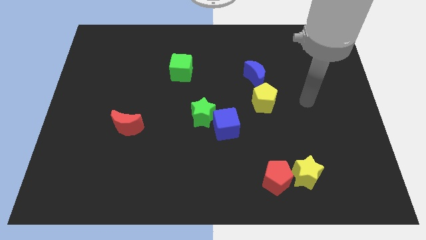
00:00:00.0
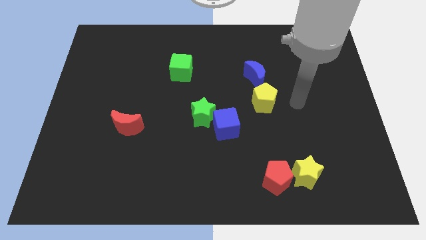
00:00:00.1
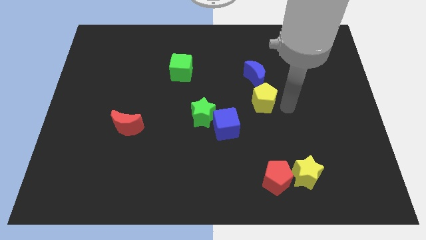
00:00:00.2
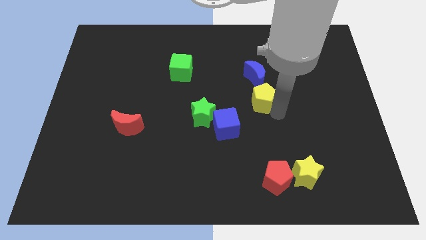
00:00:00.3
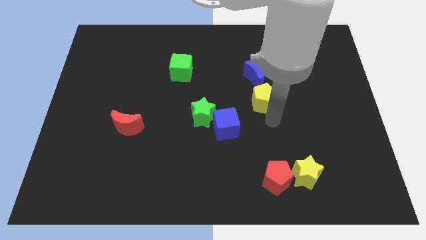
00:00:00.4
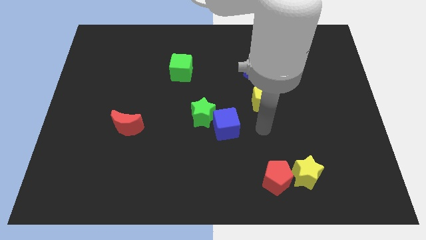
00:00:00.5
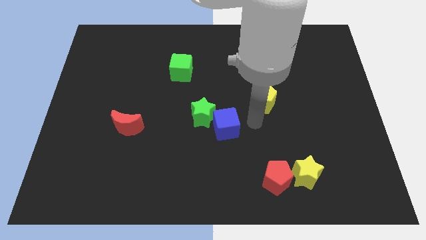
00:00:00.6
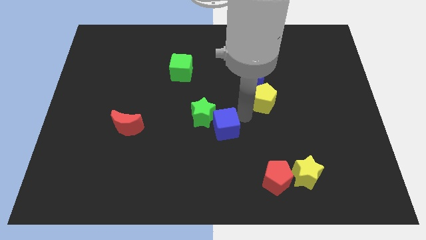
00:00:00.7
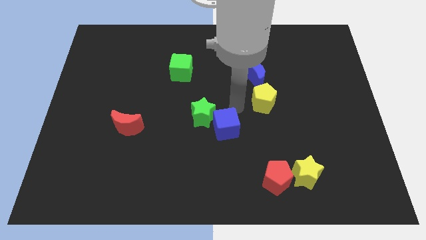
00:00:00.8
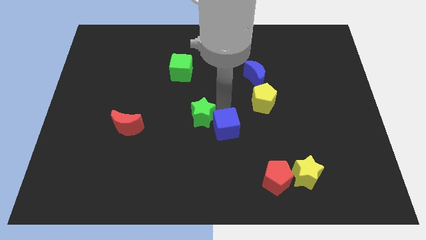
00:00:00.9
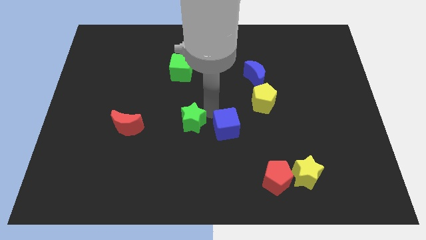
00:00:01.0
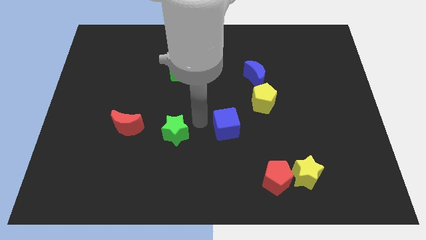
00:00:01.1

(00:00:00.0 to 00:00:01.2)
separate the blue cube from the green star

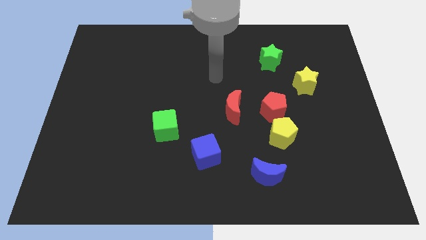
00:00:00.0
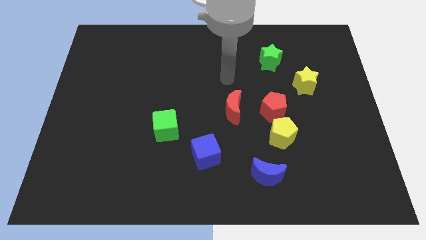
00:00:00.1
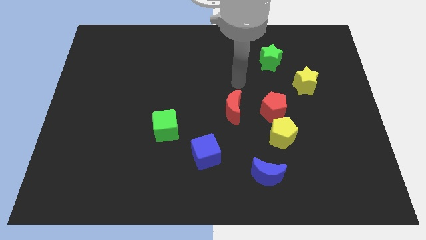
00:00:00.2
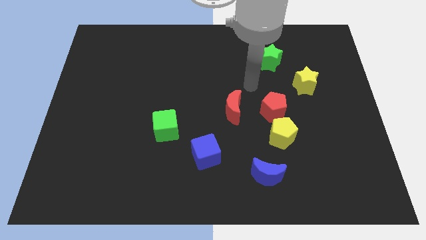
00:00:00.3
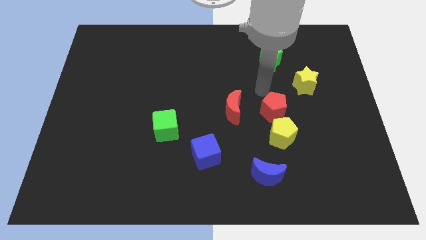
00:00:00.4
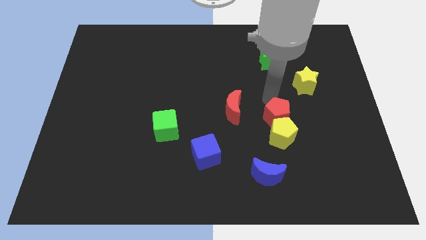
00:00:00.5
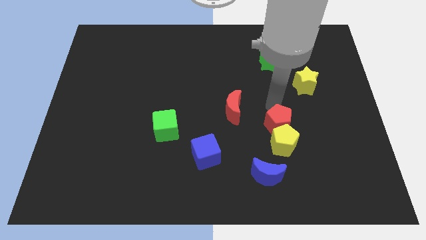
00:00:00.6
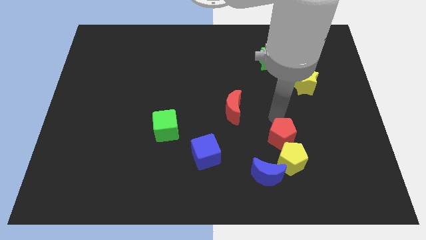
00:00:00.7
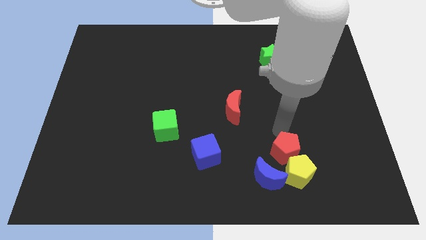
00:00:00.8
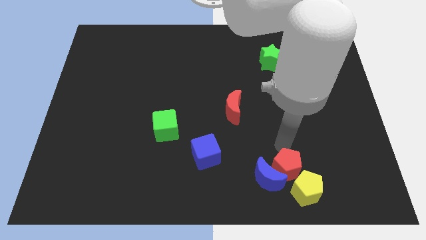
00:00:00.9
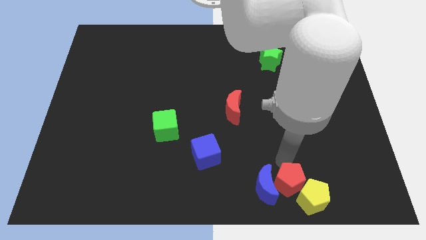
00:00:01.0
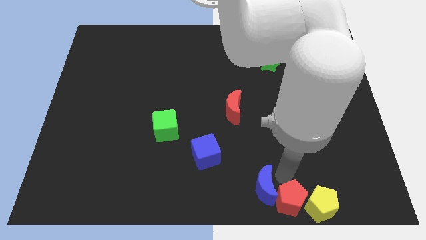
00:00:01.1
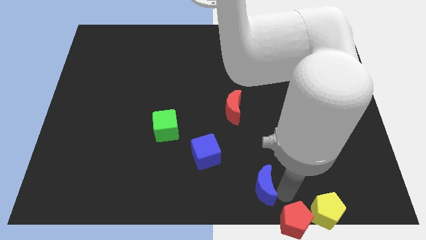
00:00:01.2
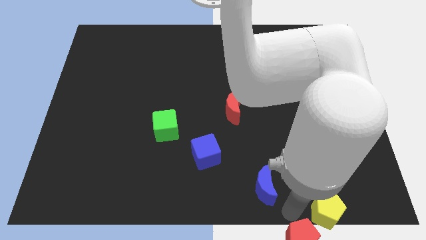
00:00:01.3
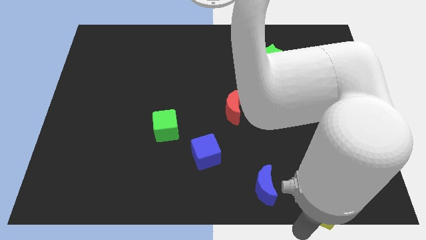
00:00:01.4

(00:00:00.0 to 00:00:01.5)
pull the yellow pentagon apart from the red pentagon

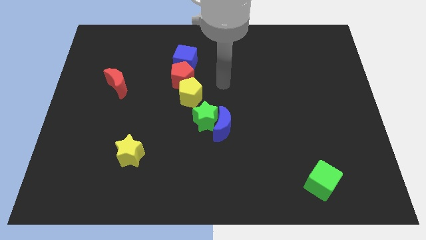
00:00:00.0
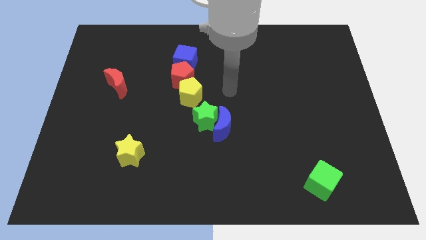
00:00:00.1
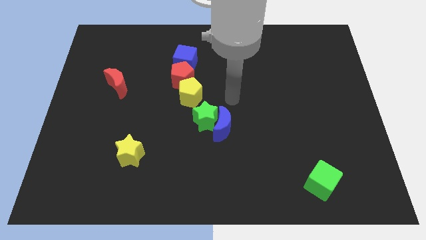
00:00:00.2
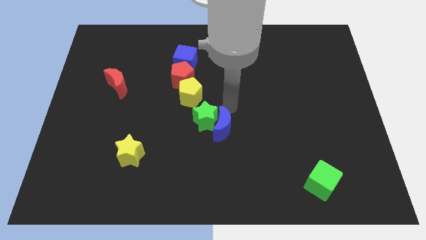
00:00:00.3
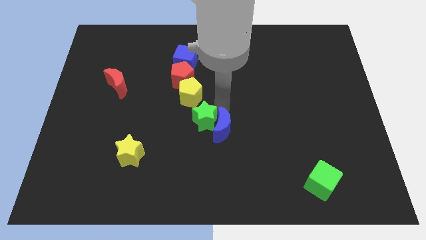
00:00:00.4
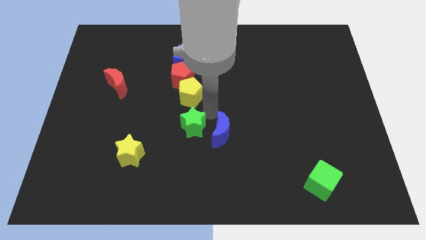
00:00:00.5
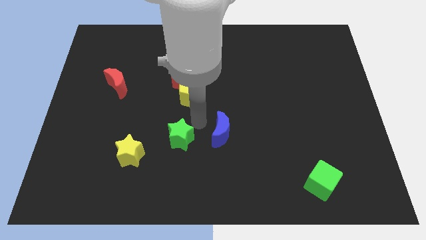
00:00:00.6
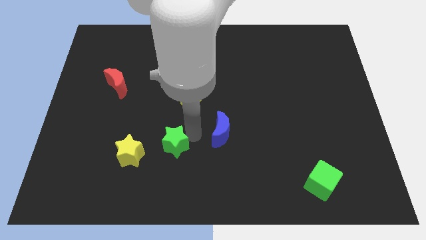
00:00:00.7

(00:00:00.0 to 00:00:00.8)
move the blue moon away from the green star

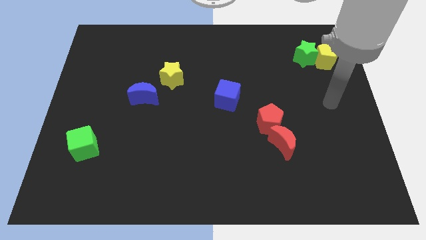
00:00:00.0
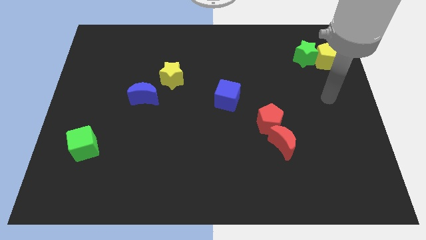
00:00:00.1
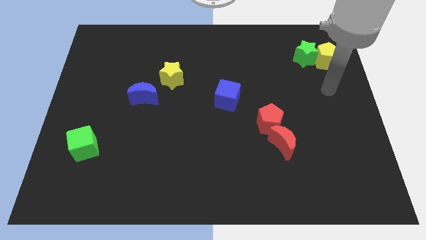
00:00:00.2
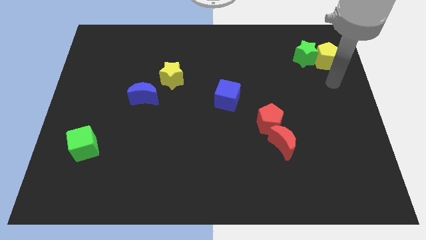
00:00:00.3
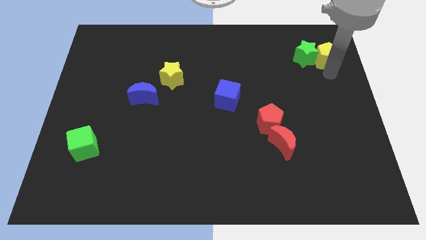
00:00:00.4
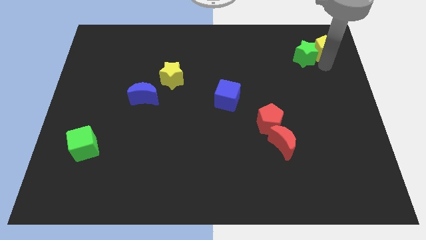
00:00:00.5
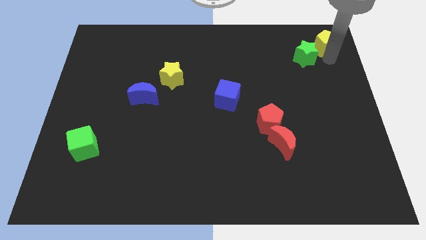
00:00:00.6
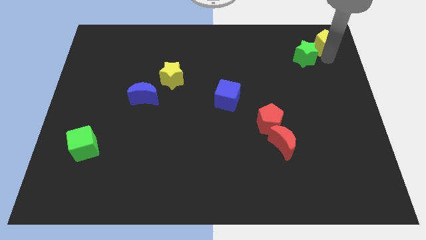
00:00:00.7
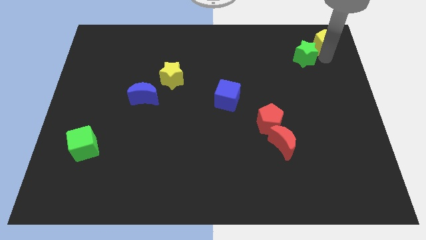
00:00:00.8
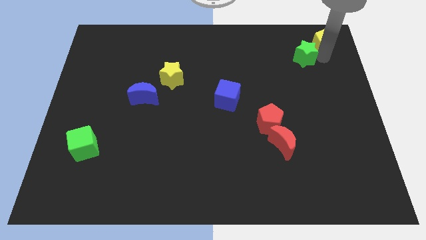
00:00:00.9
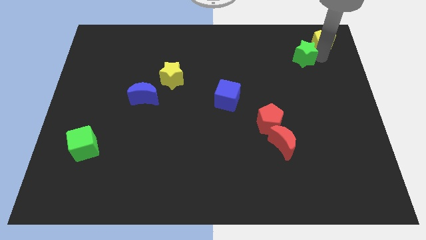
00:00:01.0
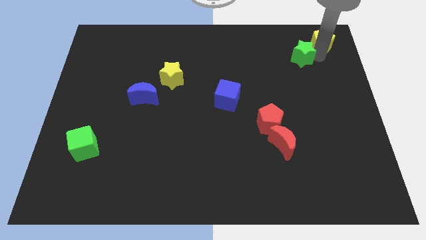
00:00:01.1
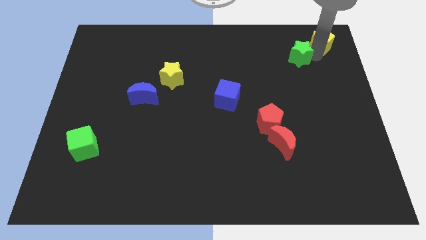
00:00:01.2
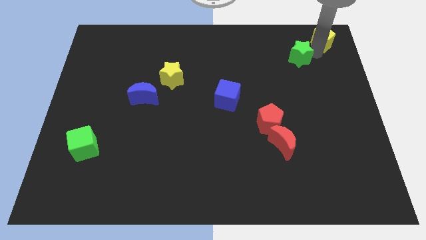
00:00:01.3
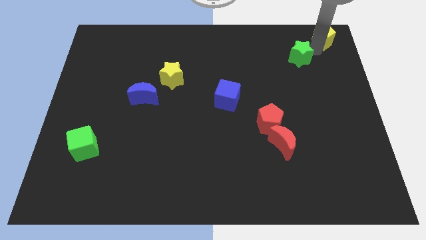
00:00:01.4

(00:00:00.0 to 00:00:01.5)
move the green star away from the yellow pentagon

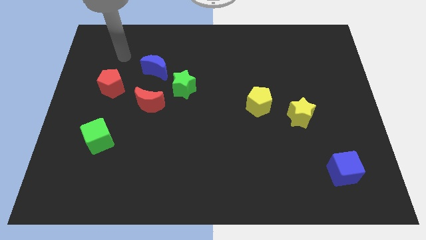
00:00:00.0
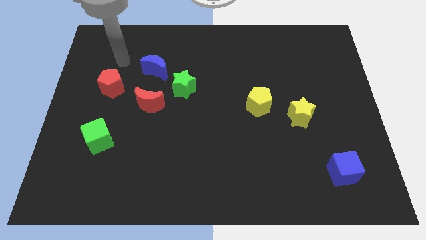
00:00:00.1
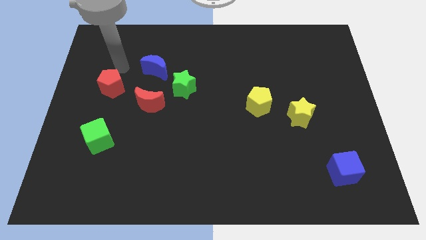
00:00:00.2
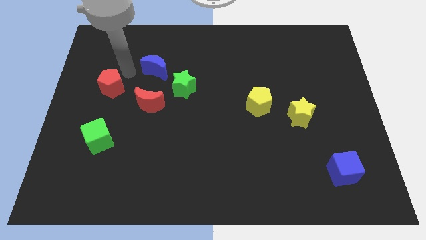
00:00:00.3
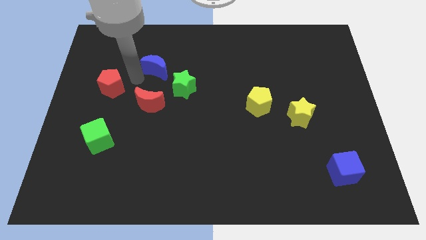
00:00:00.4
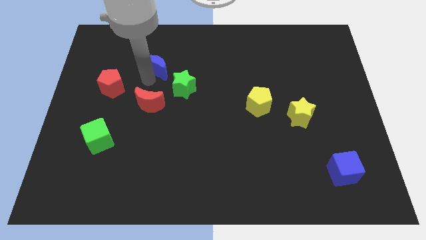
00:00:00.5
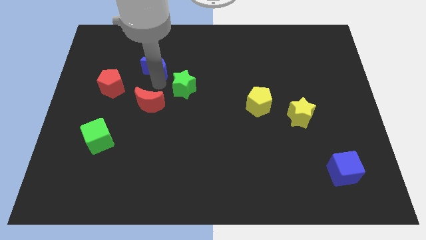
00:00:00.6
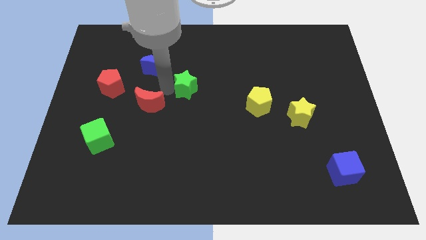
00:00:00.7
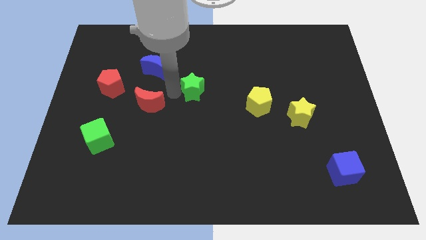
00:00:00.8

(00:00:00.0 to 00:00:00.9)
move the red moon away from the green star

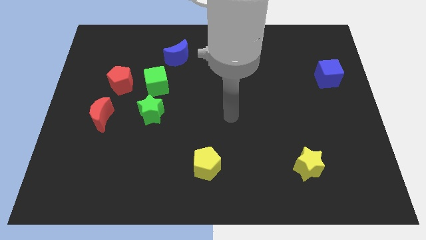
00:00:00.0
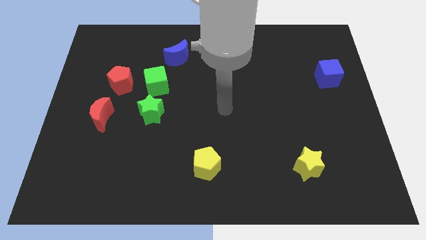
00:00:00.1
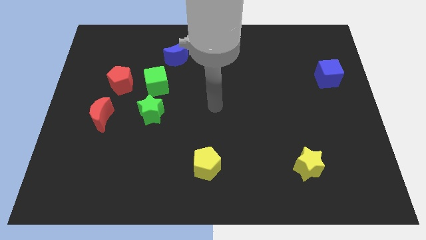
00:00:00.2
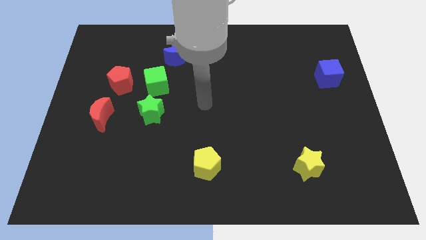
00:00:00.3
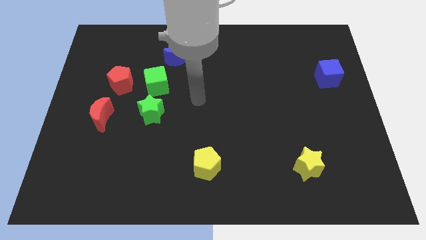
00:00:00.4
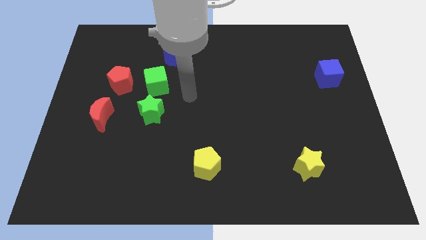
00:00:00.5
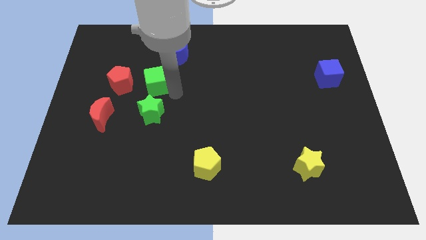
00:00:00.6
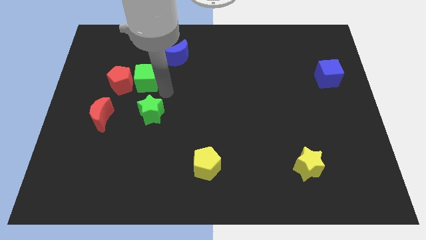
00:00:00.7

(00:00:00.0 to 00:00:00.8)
separate the green star from the green cube

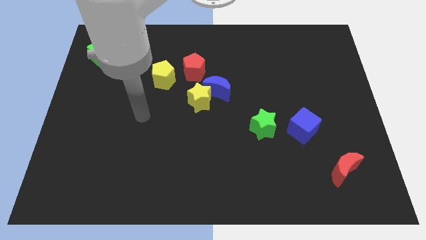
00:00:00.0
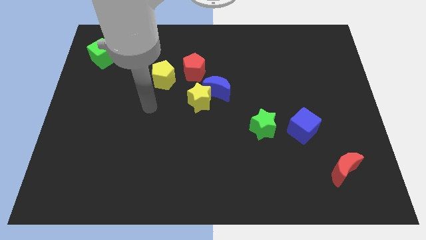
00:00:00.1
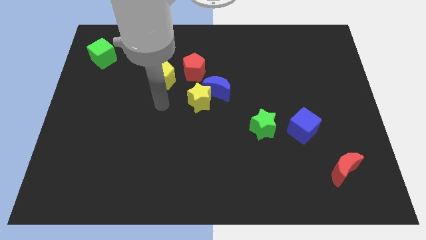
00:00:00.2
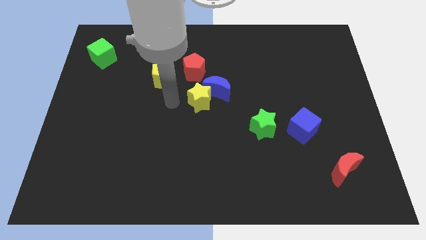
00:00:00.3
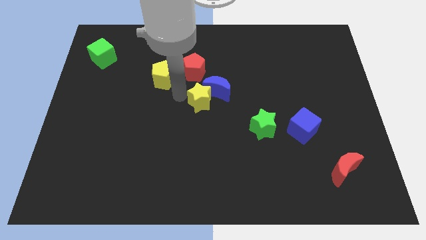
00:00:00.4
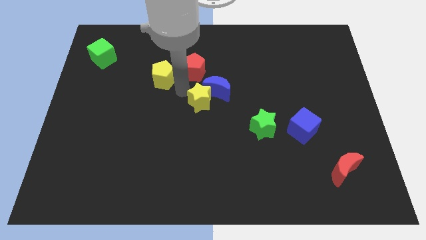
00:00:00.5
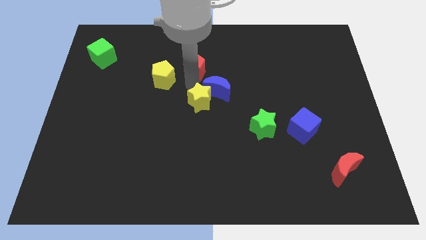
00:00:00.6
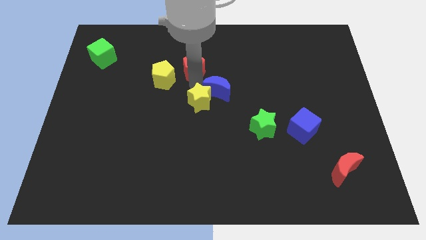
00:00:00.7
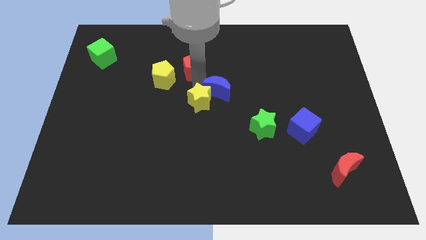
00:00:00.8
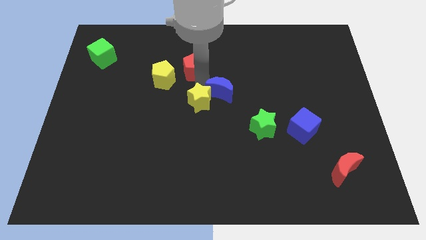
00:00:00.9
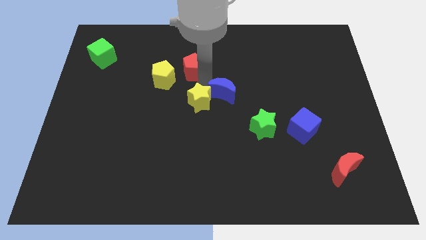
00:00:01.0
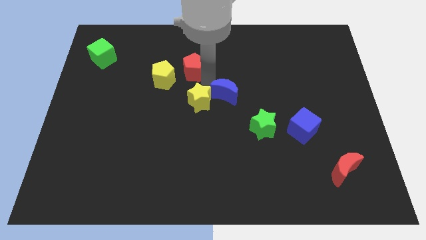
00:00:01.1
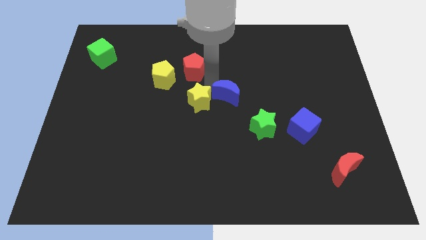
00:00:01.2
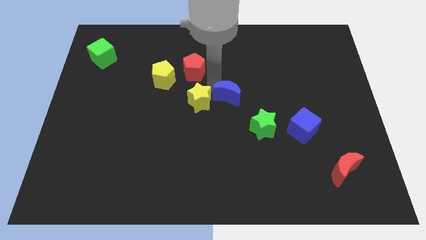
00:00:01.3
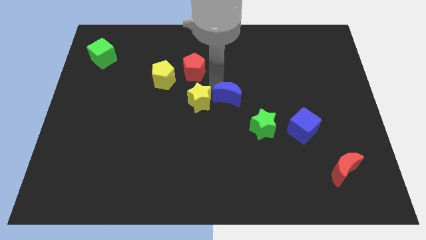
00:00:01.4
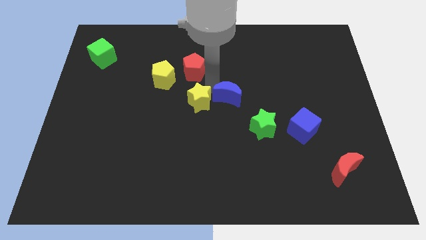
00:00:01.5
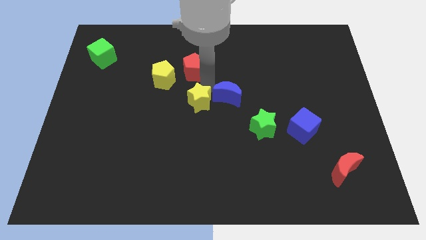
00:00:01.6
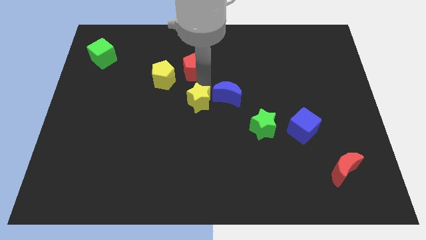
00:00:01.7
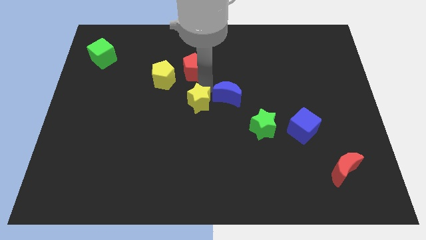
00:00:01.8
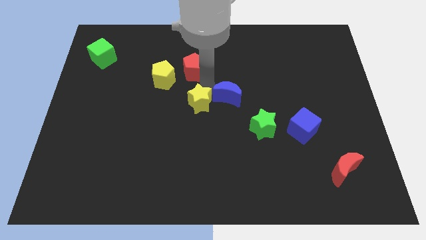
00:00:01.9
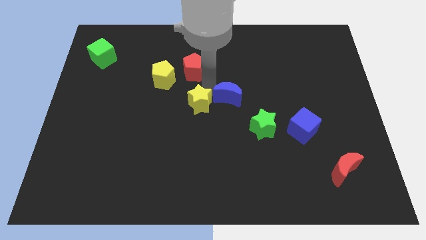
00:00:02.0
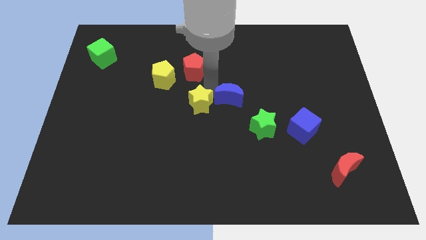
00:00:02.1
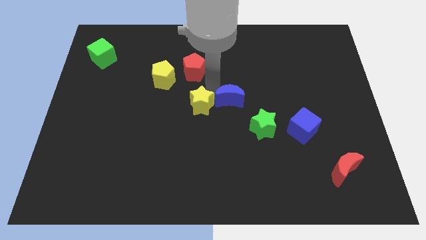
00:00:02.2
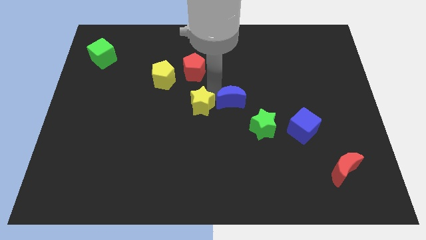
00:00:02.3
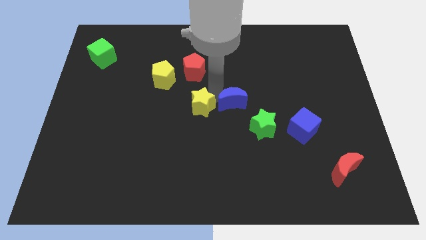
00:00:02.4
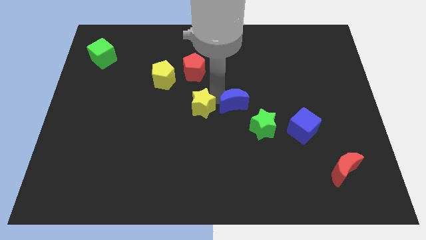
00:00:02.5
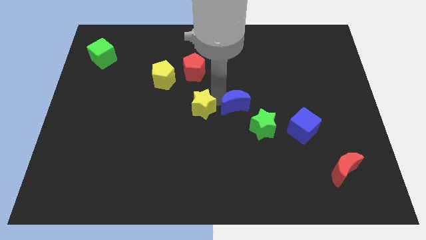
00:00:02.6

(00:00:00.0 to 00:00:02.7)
move the blue moon away from the yellow star and red pentagon
